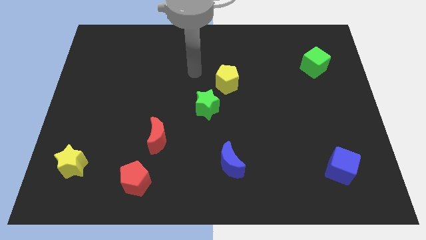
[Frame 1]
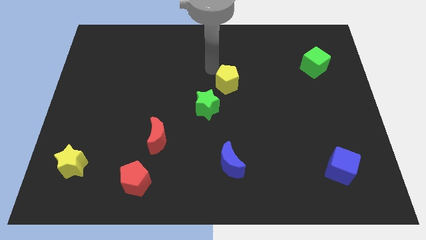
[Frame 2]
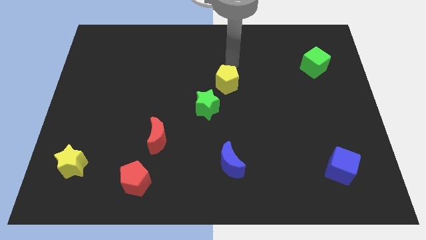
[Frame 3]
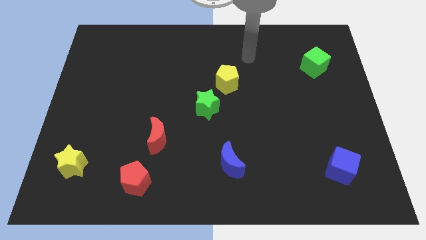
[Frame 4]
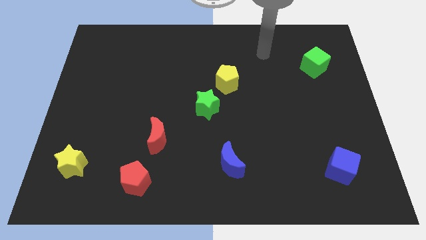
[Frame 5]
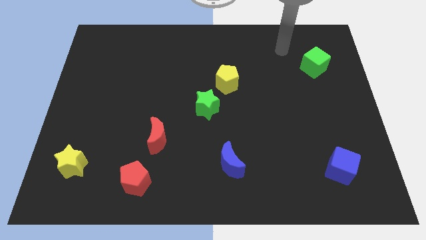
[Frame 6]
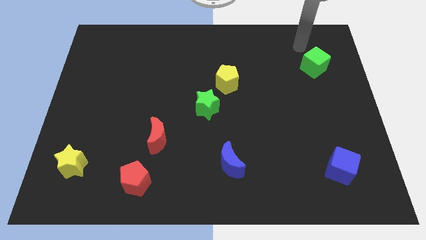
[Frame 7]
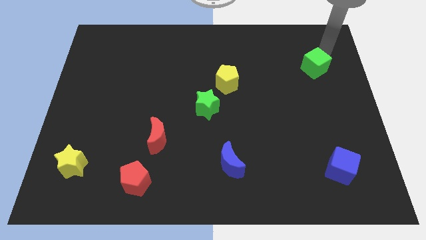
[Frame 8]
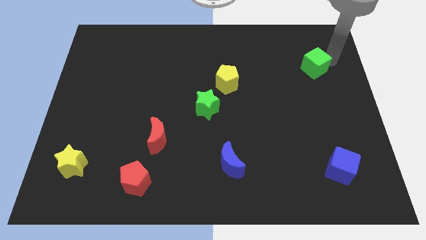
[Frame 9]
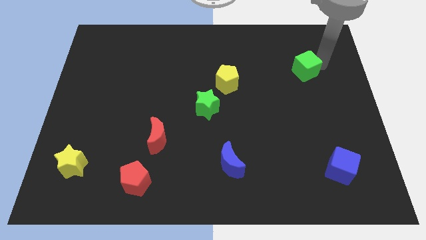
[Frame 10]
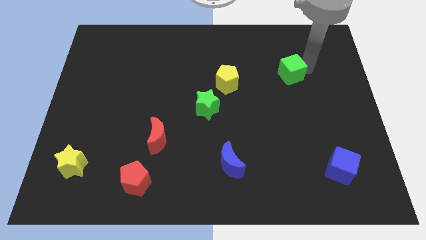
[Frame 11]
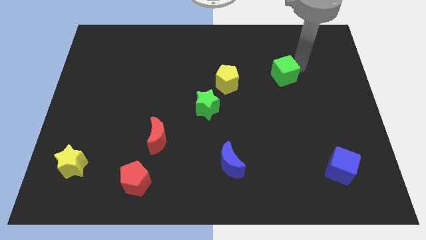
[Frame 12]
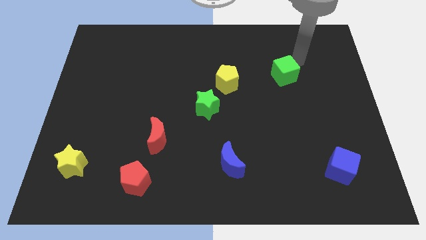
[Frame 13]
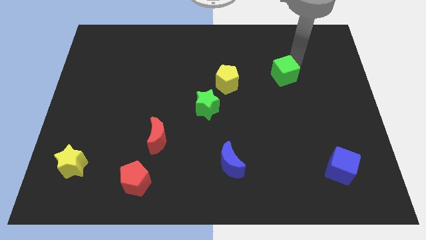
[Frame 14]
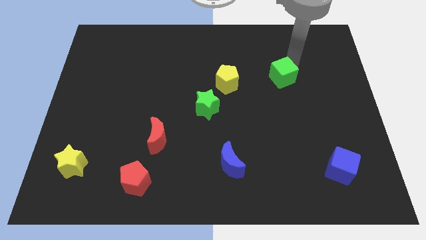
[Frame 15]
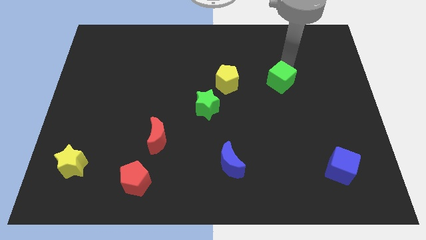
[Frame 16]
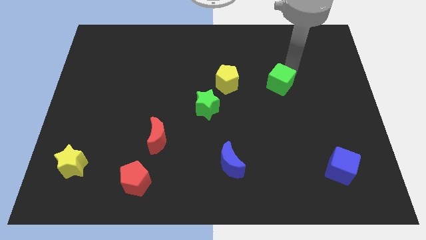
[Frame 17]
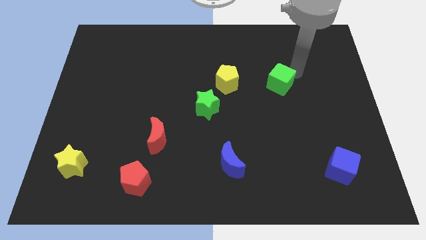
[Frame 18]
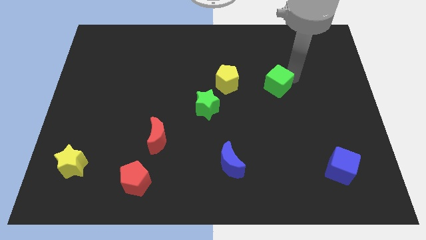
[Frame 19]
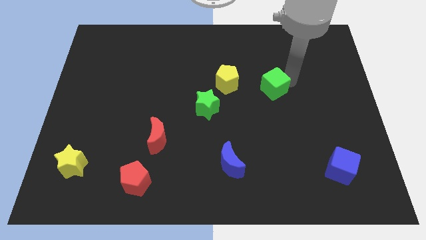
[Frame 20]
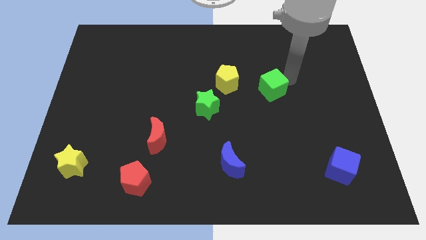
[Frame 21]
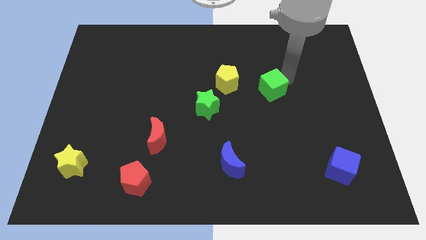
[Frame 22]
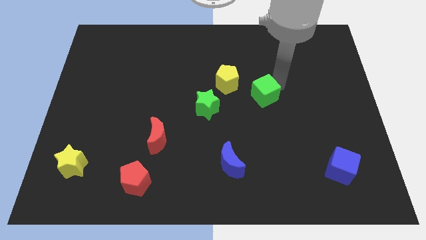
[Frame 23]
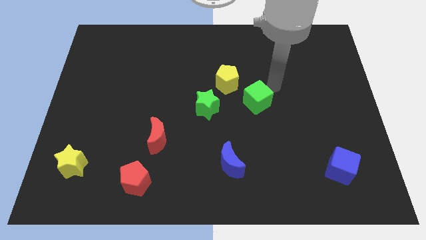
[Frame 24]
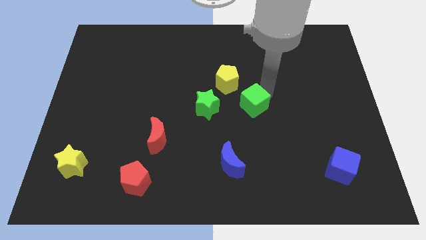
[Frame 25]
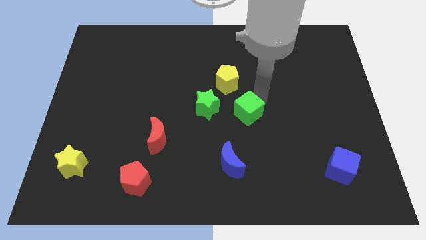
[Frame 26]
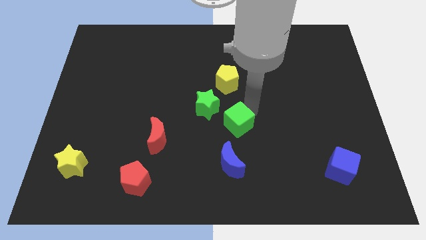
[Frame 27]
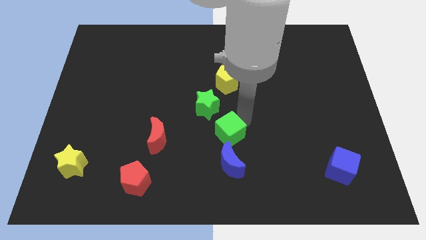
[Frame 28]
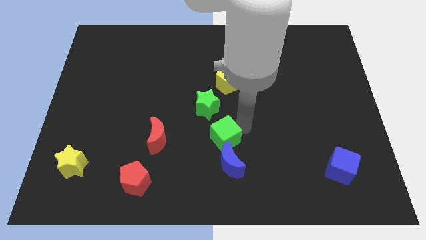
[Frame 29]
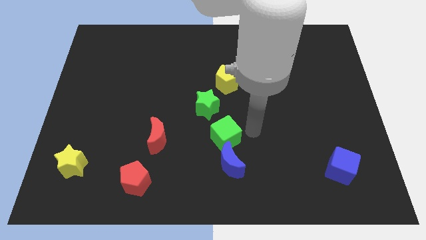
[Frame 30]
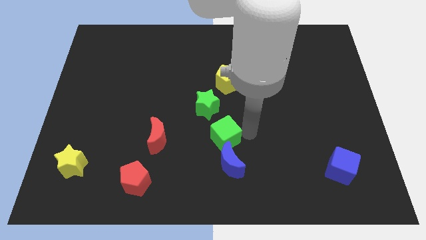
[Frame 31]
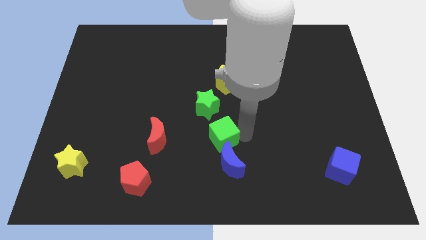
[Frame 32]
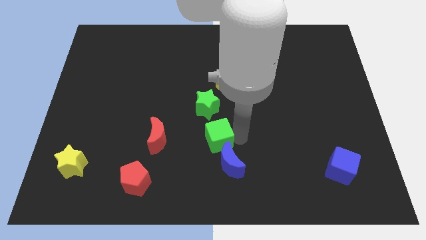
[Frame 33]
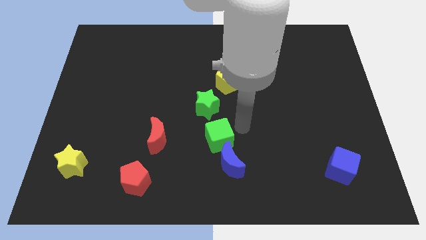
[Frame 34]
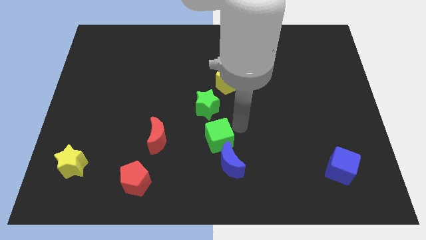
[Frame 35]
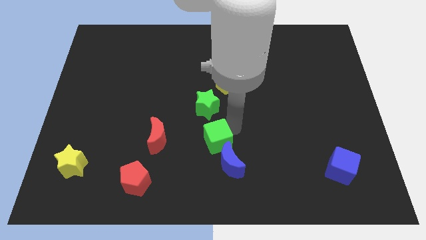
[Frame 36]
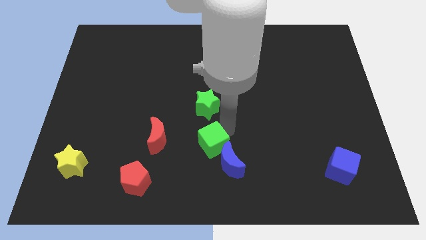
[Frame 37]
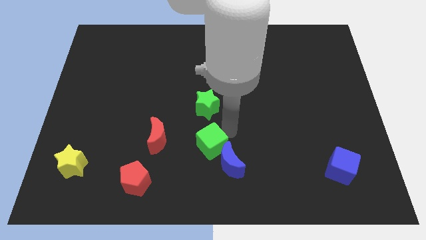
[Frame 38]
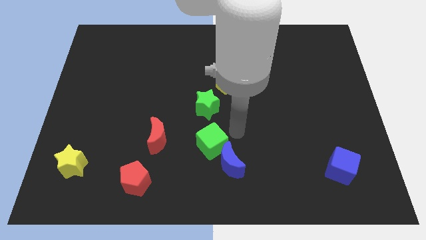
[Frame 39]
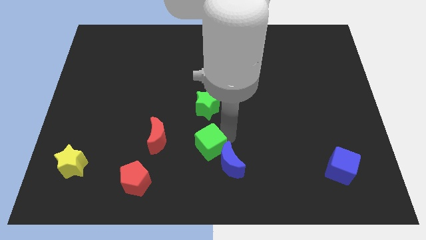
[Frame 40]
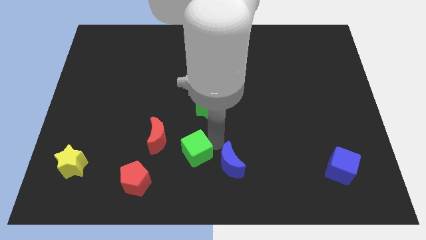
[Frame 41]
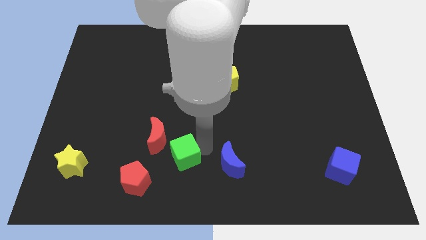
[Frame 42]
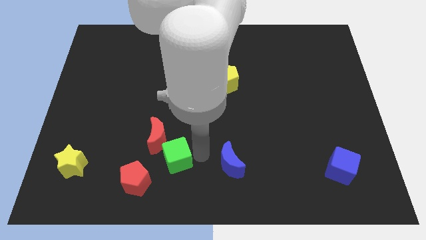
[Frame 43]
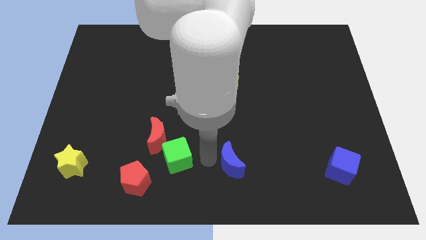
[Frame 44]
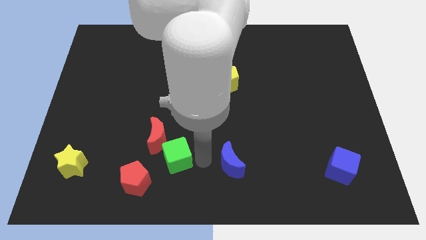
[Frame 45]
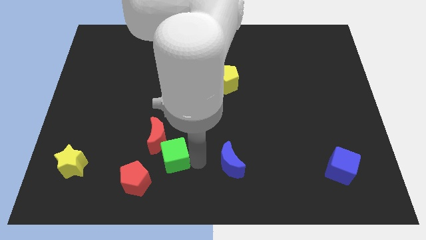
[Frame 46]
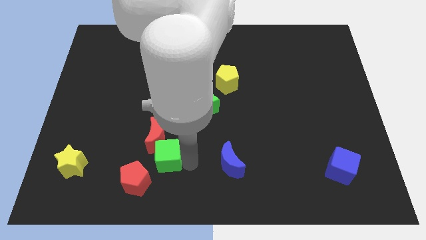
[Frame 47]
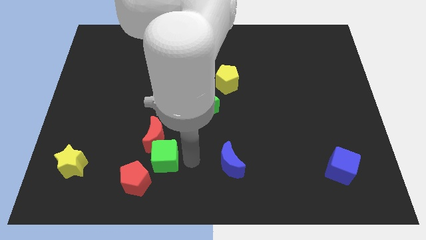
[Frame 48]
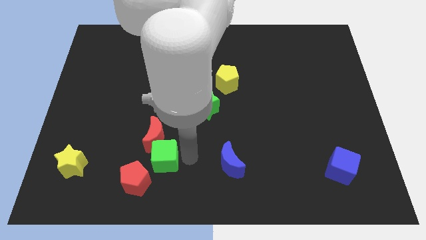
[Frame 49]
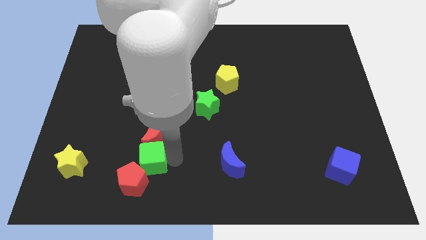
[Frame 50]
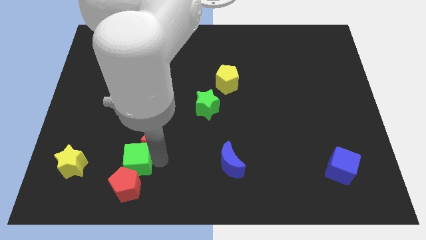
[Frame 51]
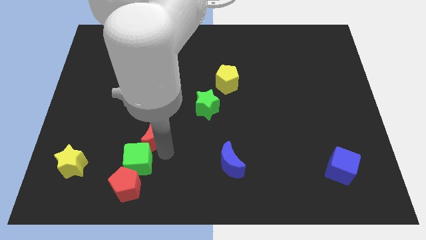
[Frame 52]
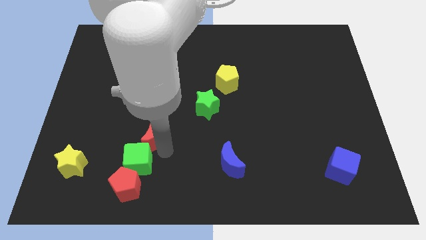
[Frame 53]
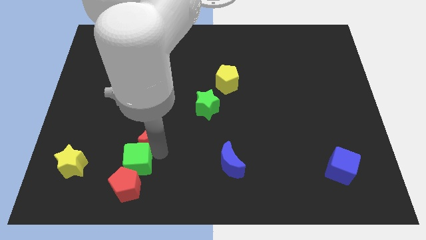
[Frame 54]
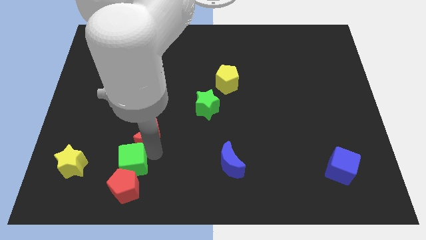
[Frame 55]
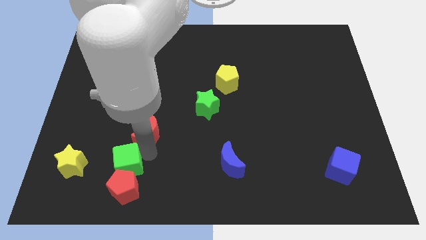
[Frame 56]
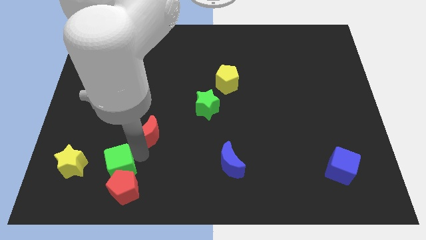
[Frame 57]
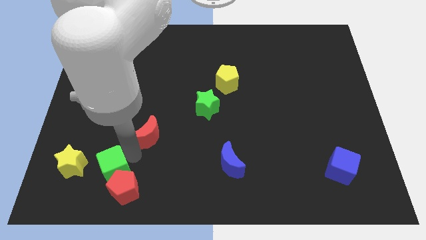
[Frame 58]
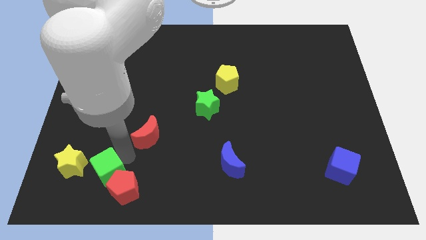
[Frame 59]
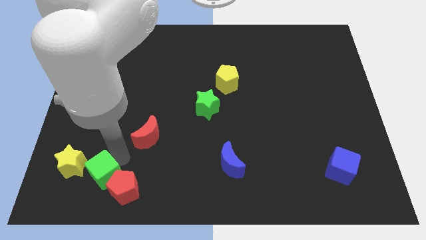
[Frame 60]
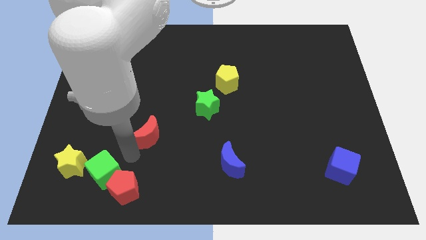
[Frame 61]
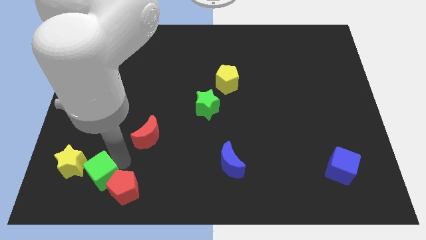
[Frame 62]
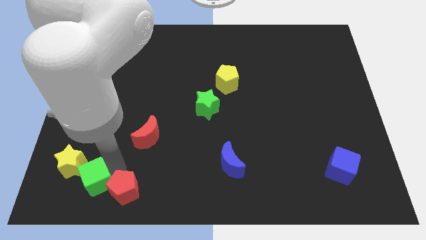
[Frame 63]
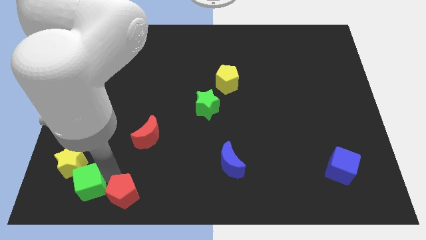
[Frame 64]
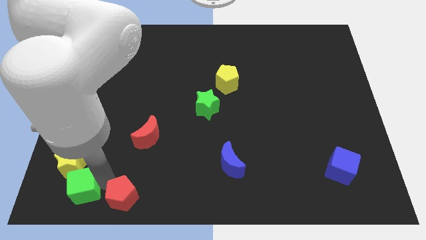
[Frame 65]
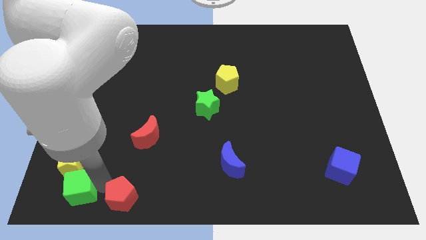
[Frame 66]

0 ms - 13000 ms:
move the green cube to the bottom left corner
